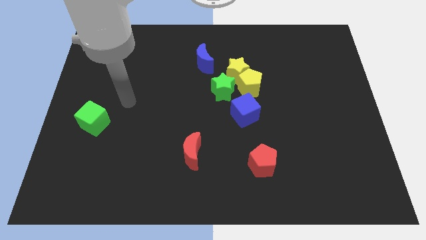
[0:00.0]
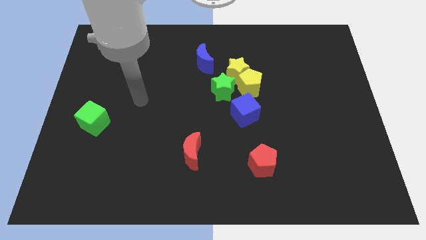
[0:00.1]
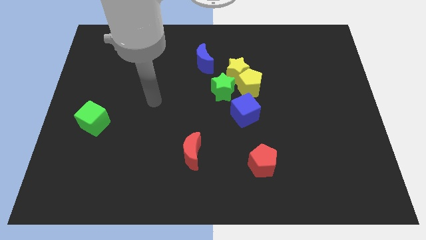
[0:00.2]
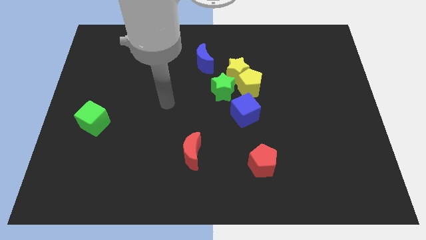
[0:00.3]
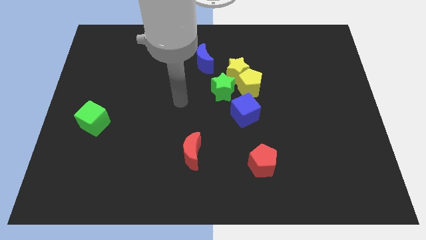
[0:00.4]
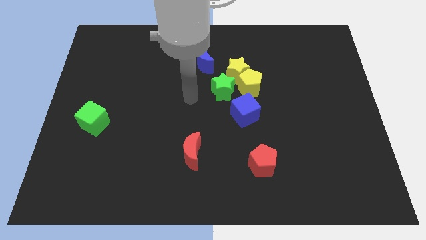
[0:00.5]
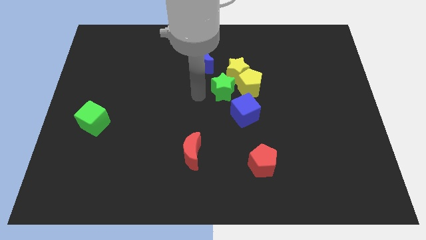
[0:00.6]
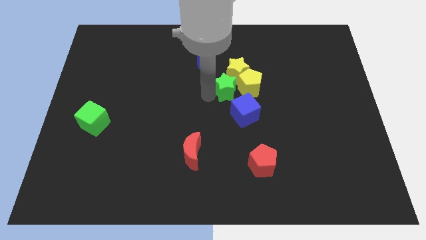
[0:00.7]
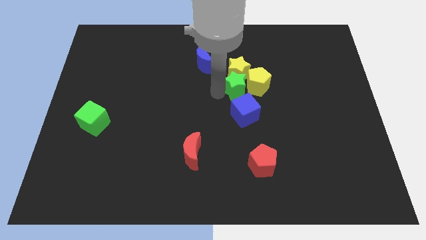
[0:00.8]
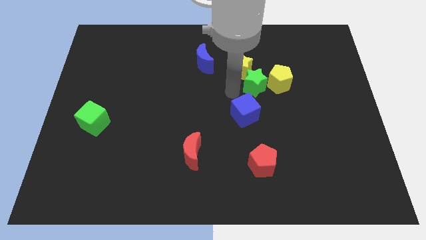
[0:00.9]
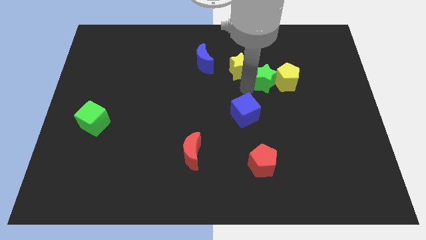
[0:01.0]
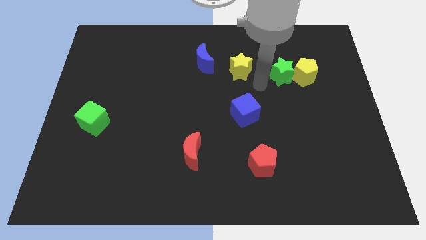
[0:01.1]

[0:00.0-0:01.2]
move the yellow pentagon away from the yellow star, green star, and blue cube

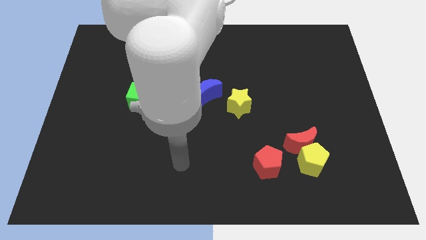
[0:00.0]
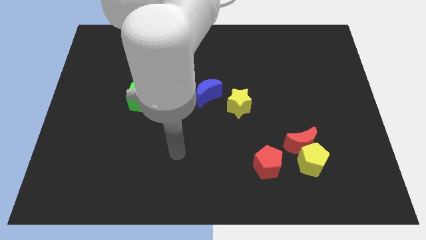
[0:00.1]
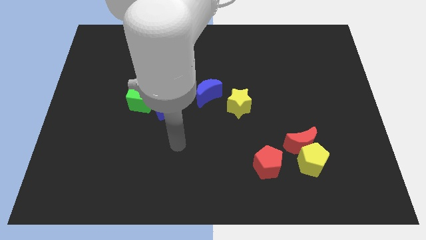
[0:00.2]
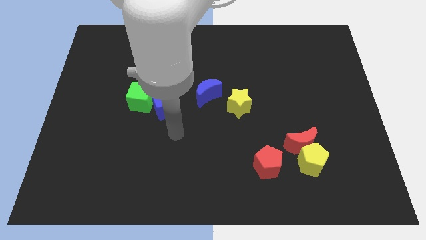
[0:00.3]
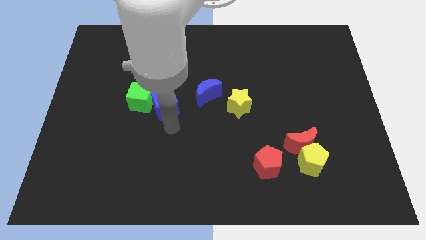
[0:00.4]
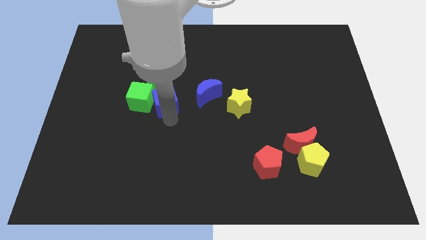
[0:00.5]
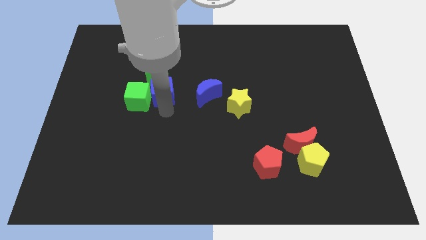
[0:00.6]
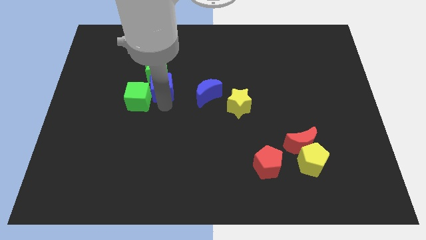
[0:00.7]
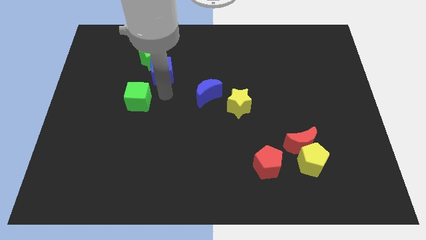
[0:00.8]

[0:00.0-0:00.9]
pull the green cube apart from the green star and blue cube

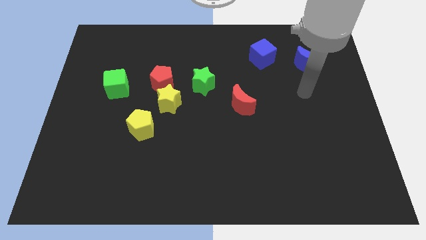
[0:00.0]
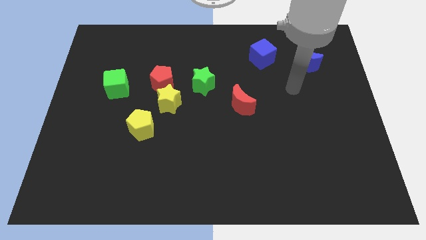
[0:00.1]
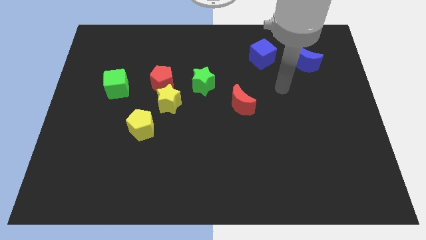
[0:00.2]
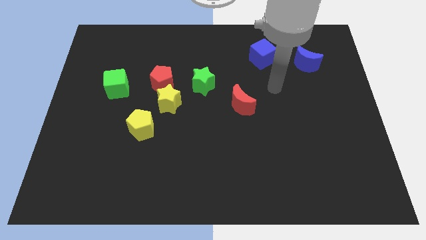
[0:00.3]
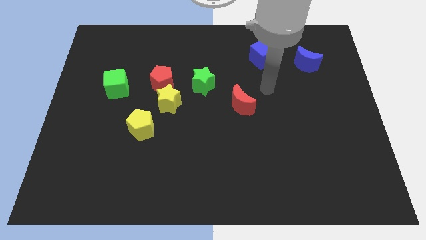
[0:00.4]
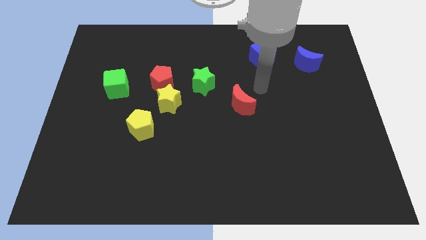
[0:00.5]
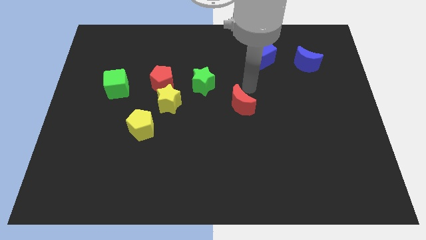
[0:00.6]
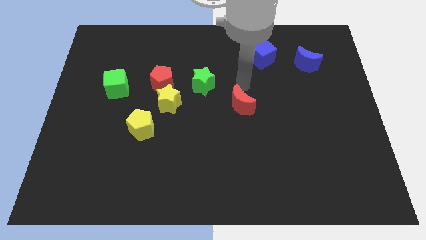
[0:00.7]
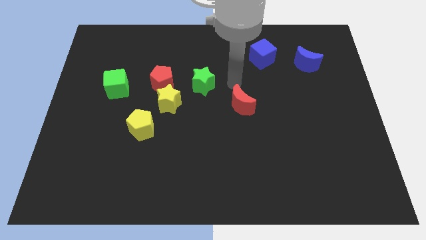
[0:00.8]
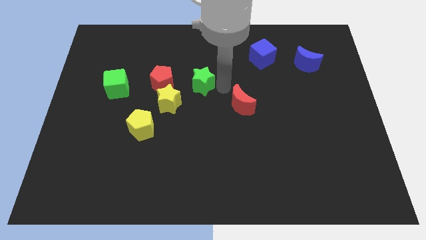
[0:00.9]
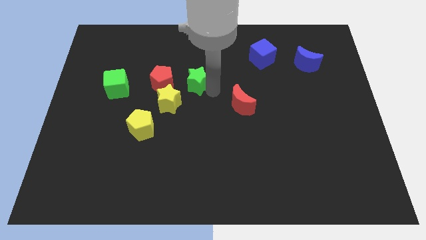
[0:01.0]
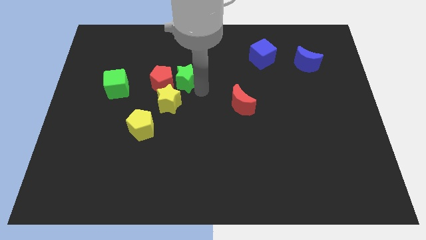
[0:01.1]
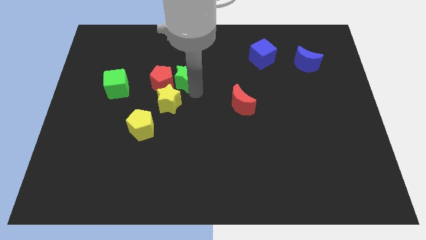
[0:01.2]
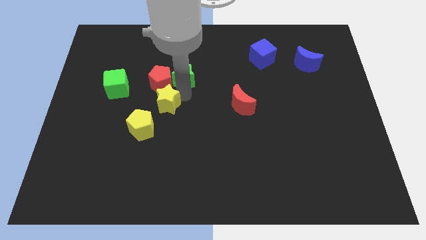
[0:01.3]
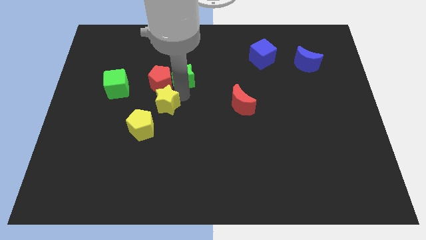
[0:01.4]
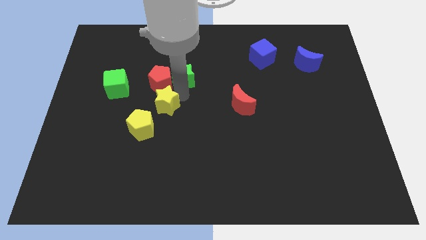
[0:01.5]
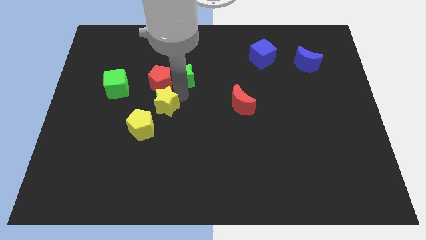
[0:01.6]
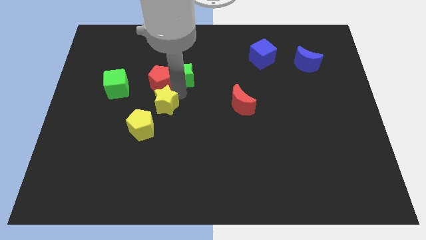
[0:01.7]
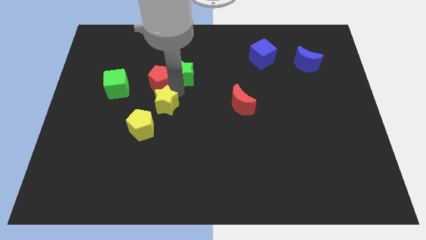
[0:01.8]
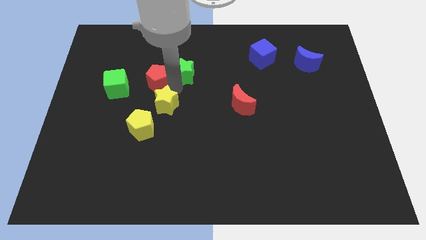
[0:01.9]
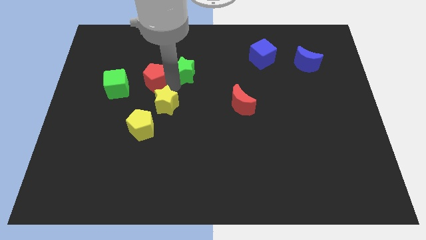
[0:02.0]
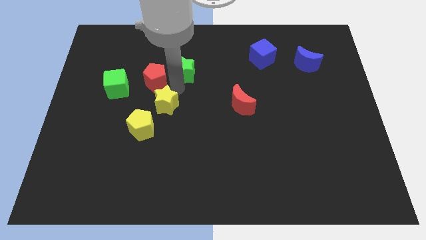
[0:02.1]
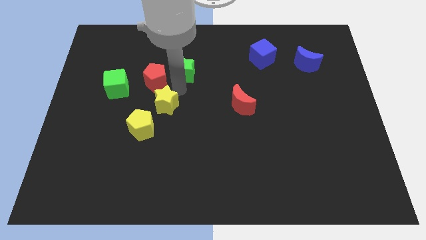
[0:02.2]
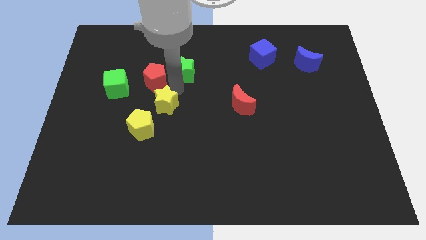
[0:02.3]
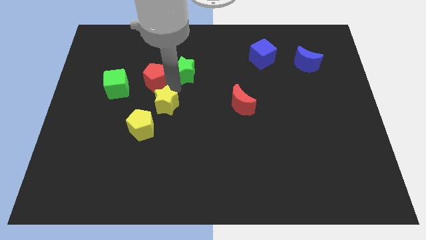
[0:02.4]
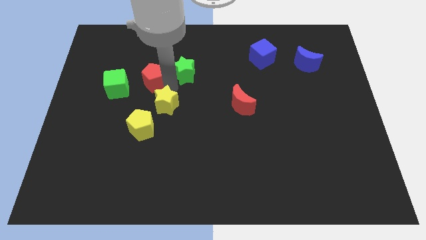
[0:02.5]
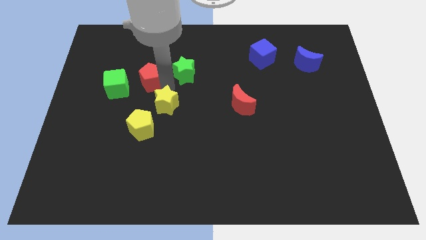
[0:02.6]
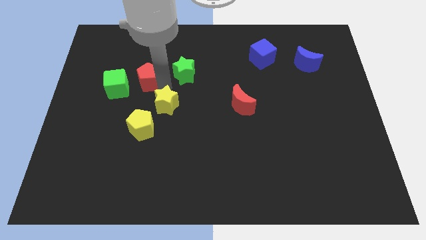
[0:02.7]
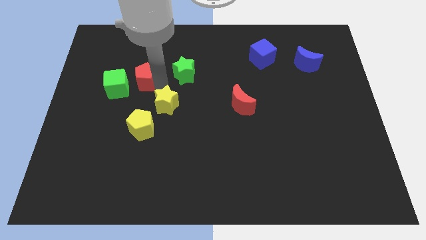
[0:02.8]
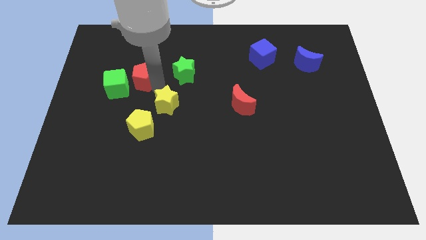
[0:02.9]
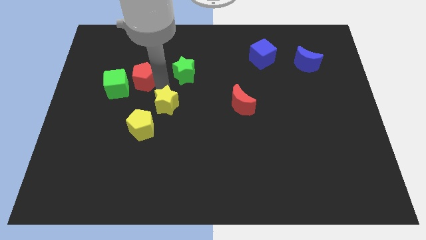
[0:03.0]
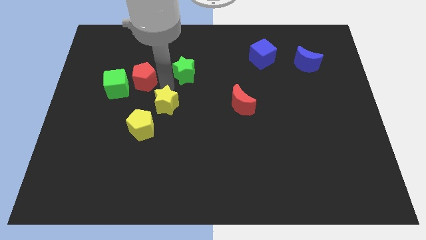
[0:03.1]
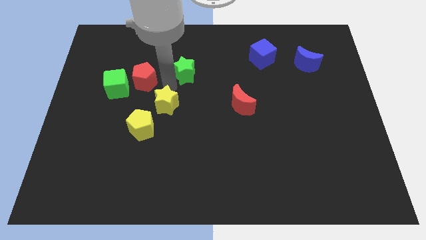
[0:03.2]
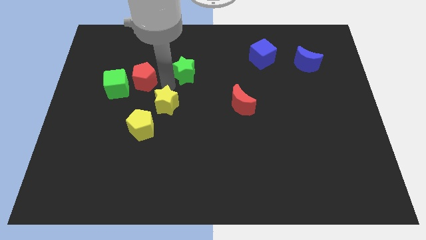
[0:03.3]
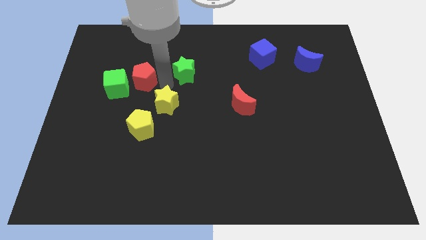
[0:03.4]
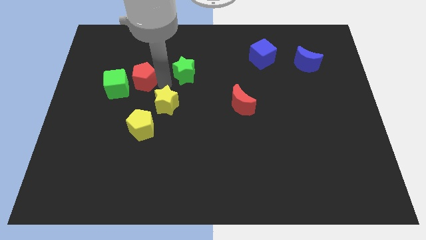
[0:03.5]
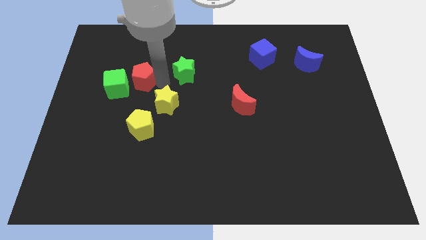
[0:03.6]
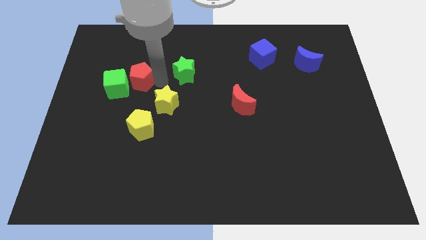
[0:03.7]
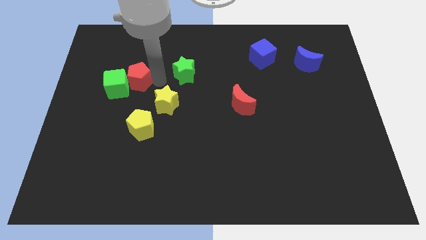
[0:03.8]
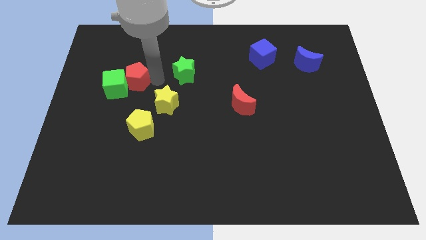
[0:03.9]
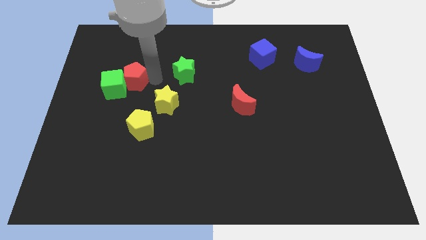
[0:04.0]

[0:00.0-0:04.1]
move the red pentagon away from the yellow star and green star

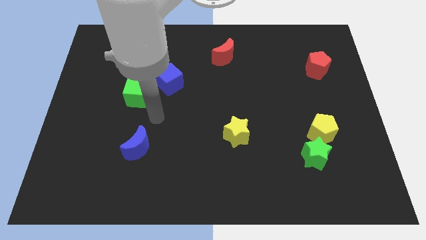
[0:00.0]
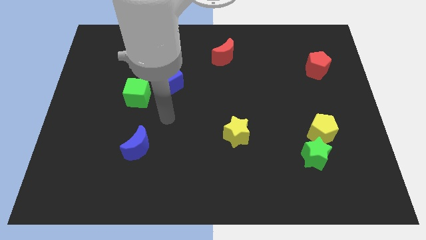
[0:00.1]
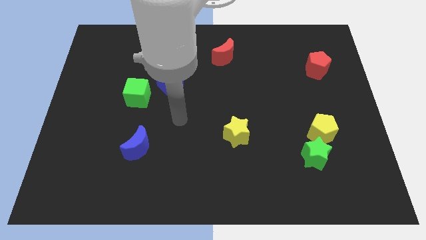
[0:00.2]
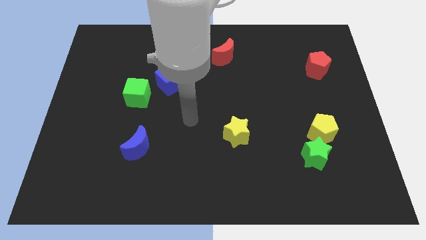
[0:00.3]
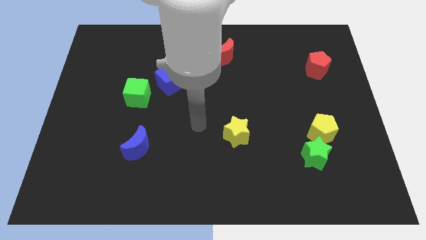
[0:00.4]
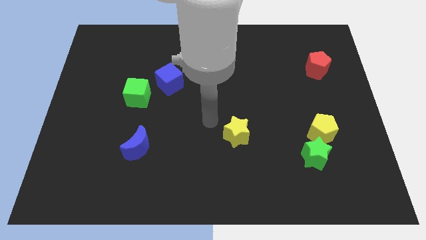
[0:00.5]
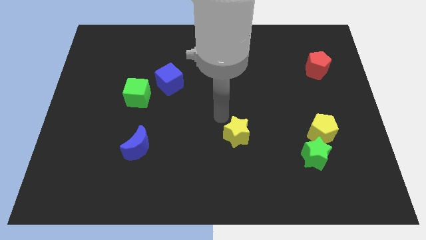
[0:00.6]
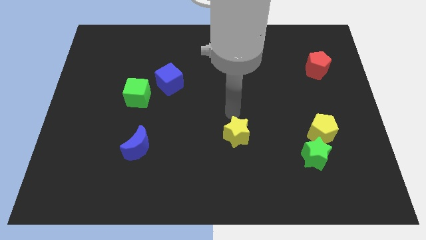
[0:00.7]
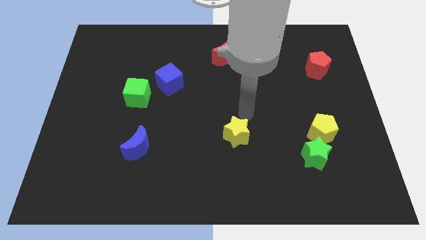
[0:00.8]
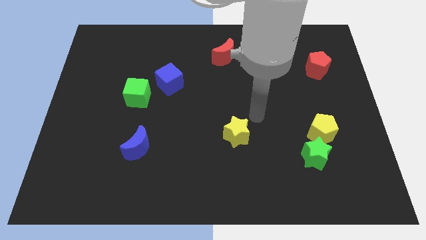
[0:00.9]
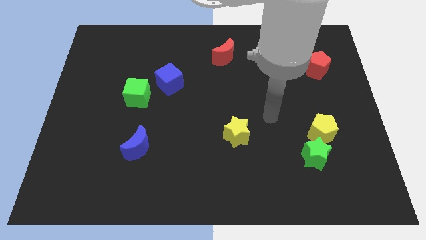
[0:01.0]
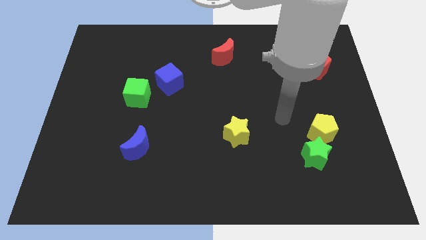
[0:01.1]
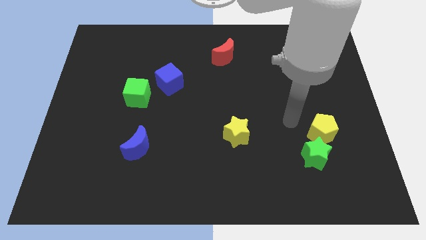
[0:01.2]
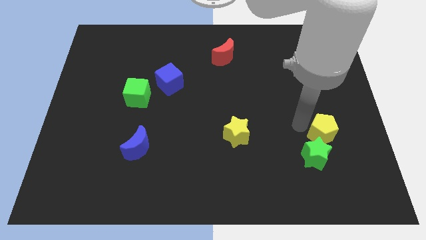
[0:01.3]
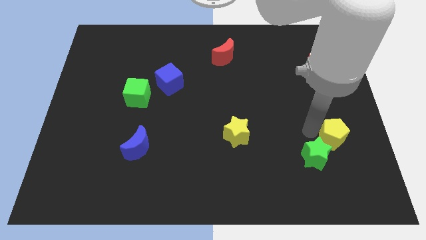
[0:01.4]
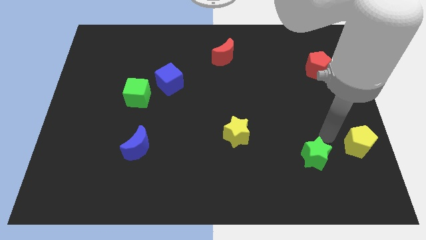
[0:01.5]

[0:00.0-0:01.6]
pull the green star apart from the yellow pentagon

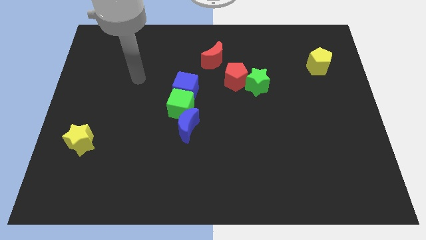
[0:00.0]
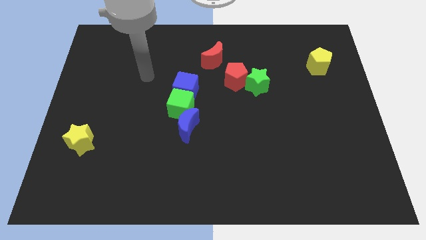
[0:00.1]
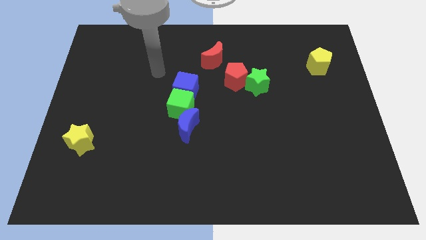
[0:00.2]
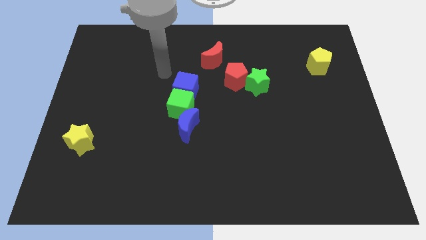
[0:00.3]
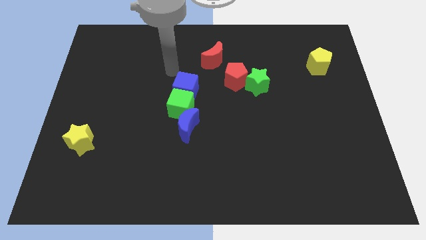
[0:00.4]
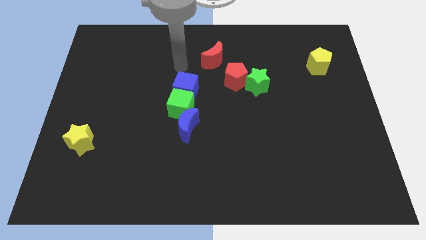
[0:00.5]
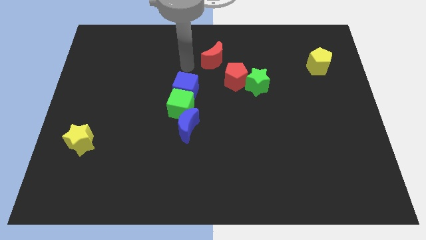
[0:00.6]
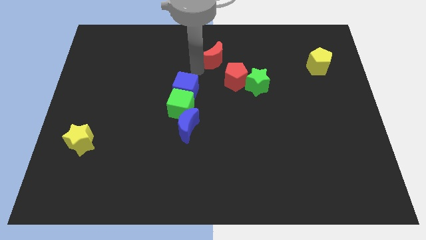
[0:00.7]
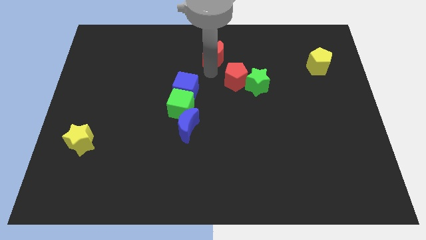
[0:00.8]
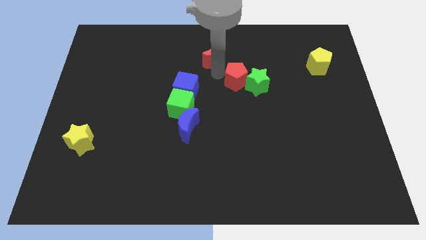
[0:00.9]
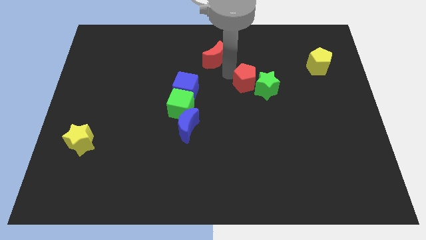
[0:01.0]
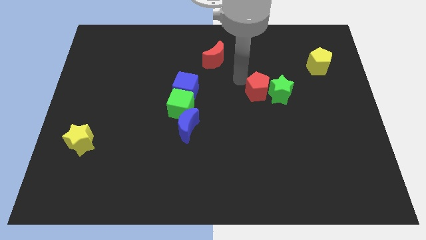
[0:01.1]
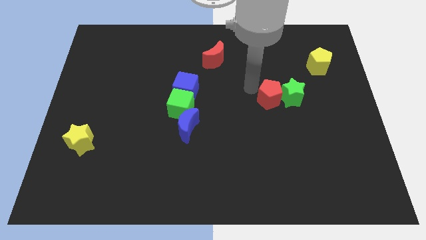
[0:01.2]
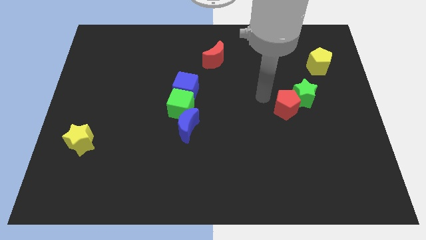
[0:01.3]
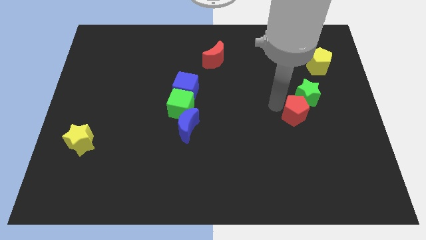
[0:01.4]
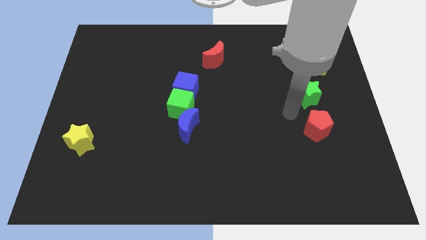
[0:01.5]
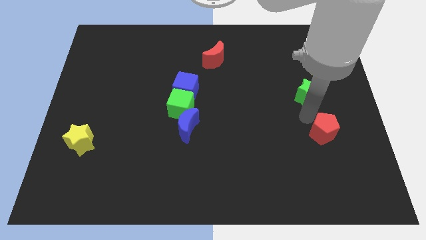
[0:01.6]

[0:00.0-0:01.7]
move the green star away from the red pentagon

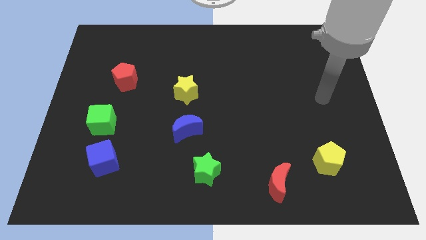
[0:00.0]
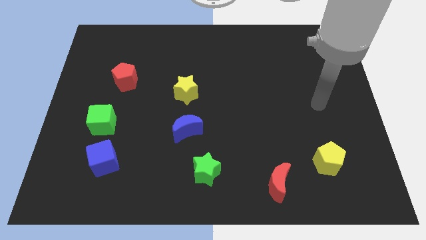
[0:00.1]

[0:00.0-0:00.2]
pull the blue cube apart from the green cube
